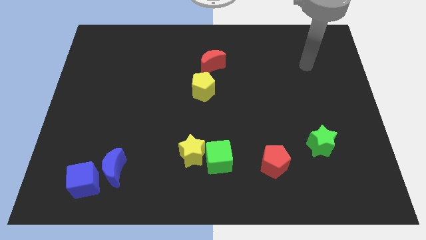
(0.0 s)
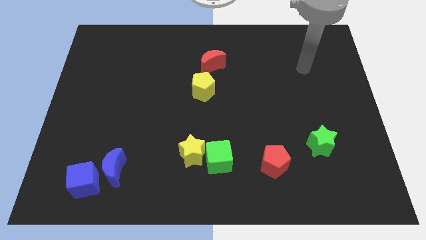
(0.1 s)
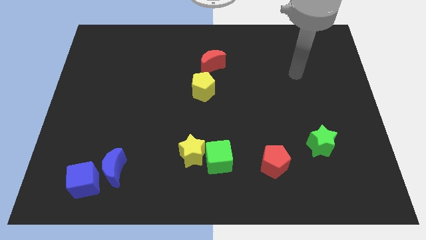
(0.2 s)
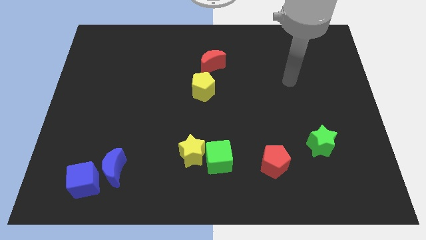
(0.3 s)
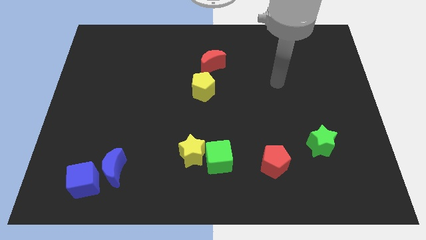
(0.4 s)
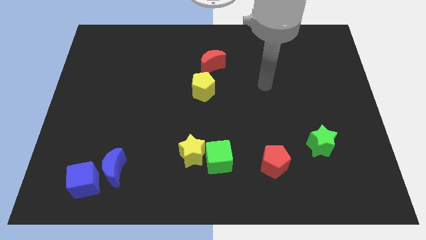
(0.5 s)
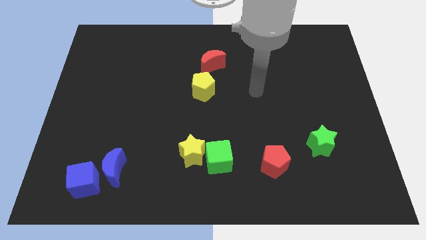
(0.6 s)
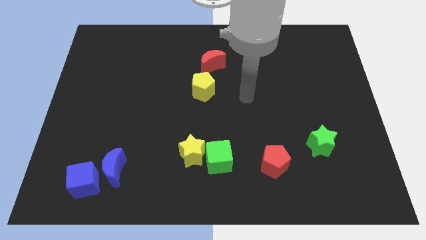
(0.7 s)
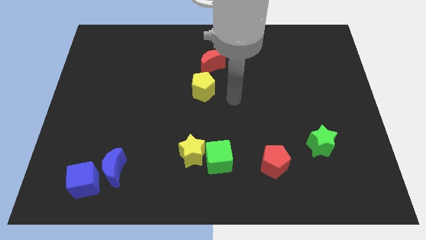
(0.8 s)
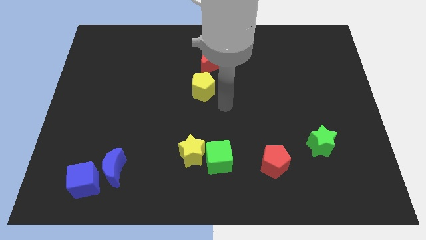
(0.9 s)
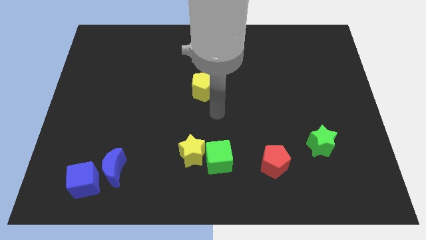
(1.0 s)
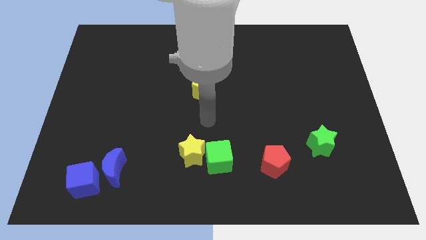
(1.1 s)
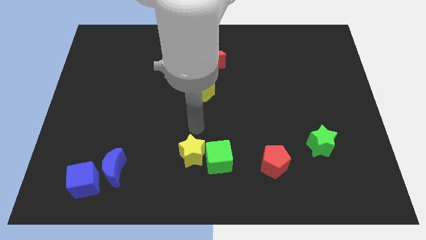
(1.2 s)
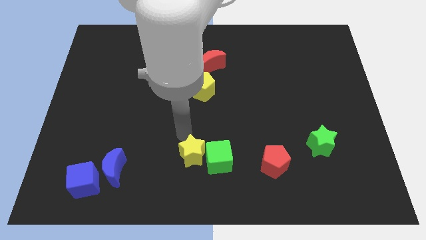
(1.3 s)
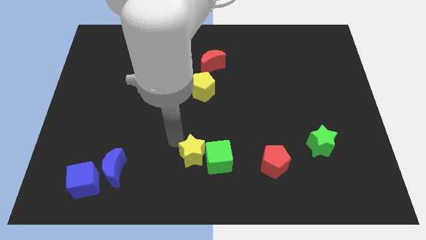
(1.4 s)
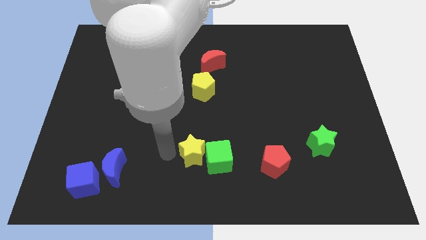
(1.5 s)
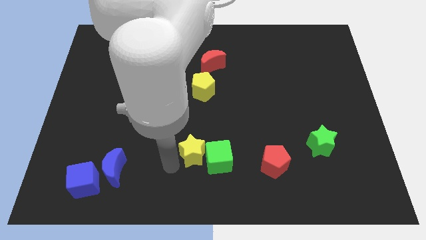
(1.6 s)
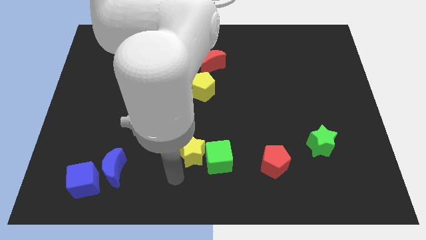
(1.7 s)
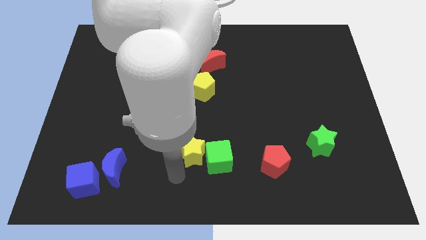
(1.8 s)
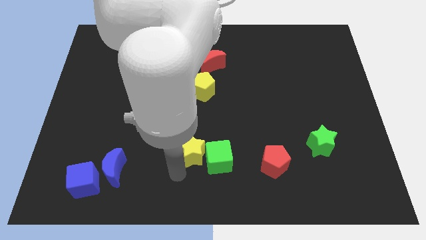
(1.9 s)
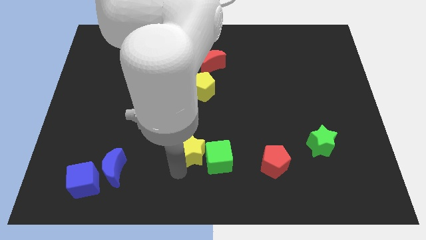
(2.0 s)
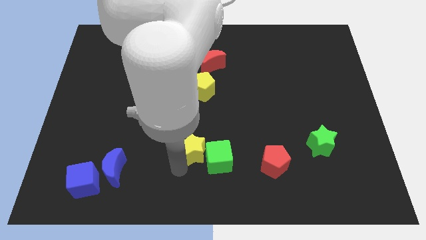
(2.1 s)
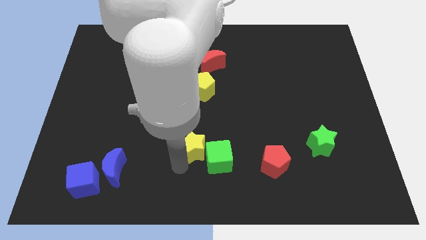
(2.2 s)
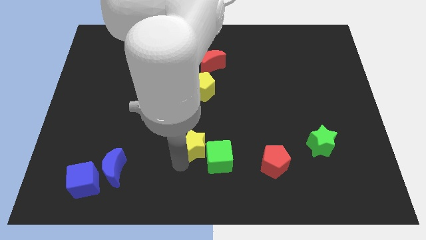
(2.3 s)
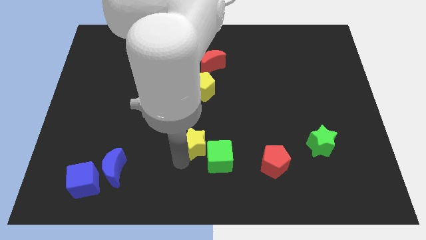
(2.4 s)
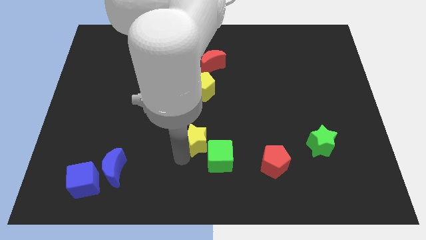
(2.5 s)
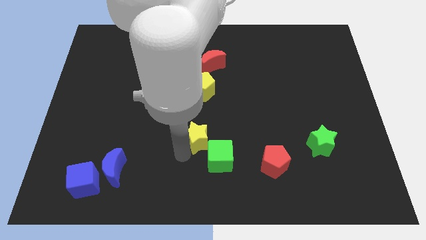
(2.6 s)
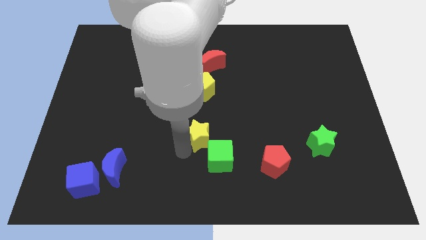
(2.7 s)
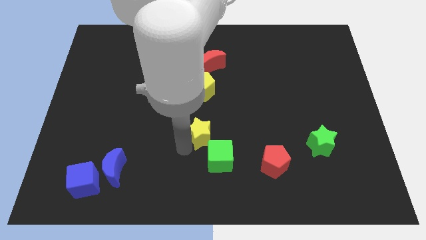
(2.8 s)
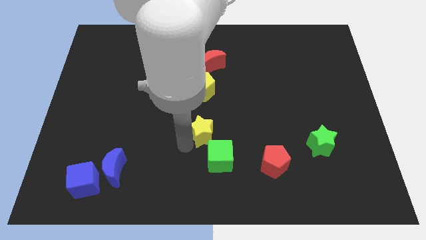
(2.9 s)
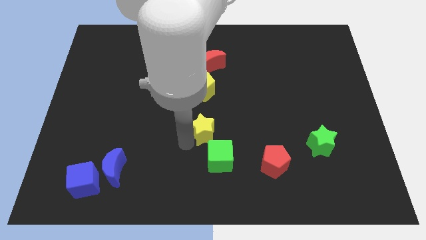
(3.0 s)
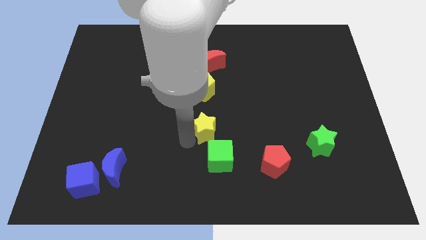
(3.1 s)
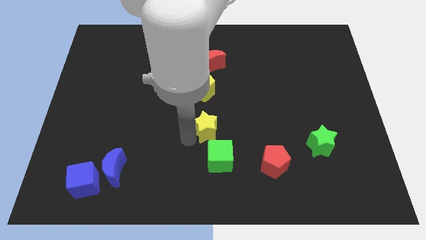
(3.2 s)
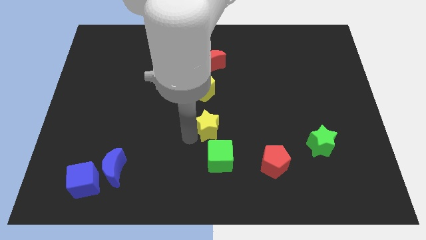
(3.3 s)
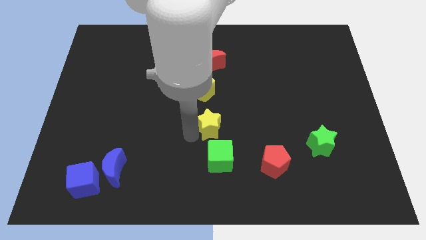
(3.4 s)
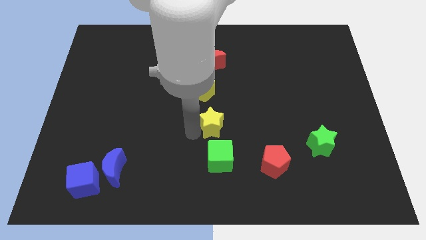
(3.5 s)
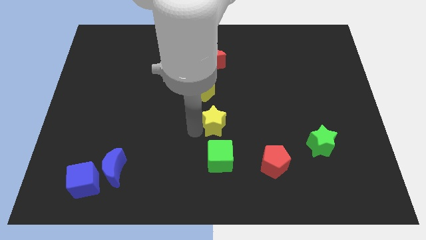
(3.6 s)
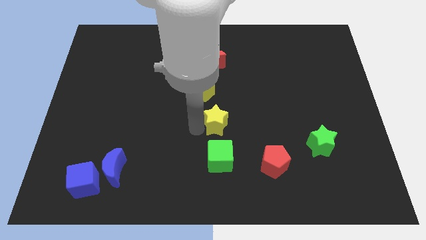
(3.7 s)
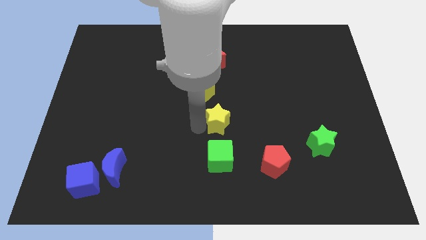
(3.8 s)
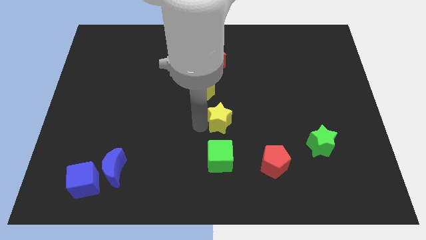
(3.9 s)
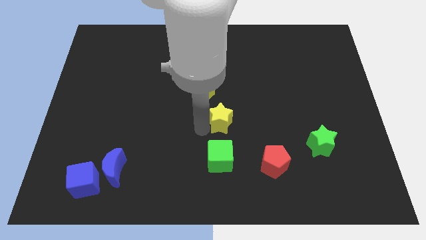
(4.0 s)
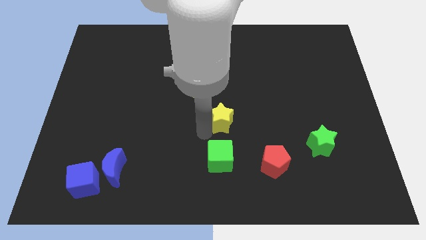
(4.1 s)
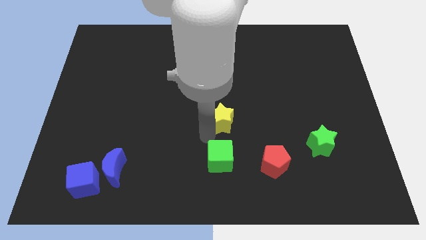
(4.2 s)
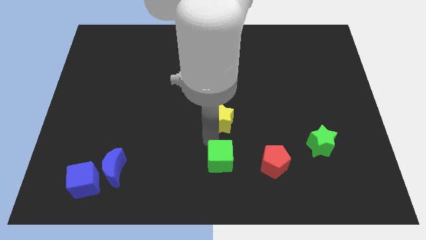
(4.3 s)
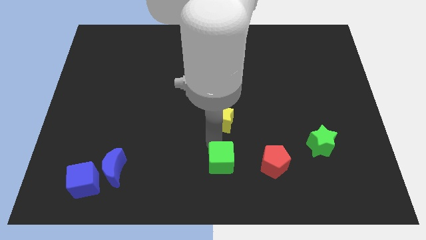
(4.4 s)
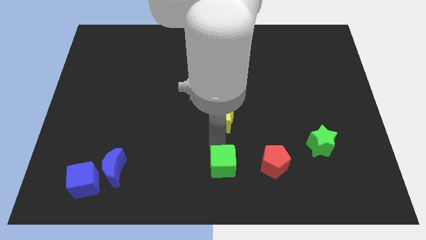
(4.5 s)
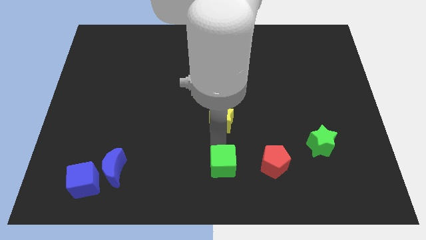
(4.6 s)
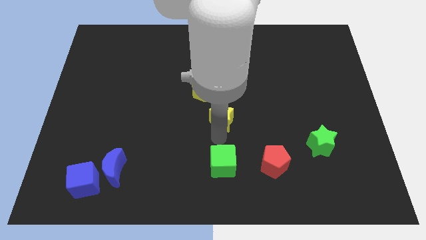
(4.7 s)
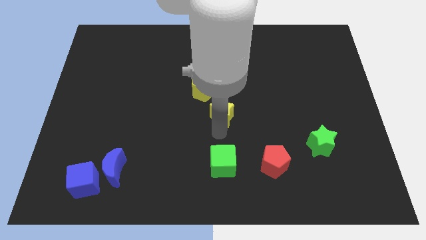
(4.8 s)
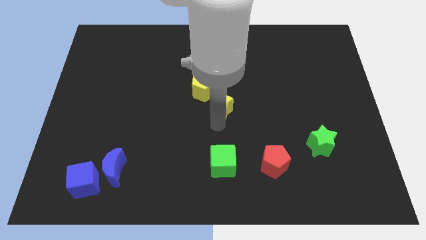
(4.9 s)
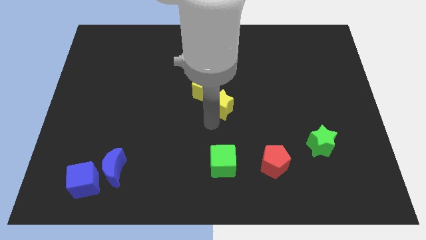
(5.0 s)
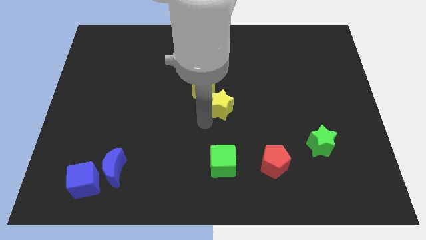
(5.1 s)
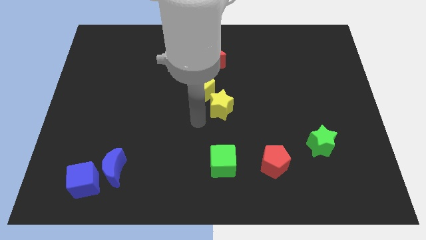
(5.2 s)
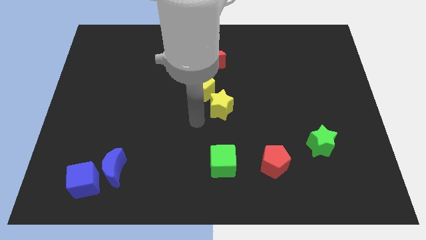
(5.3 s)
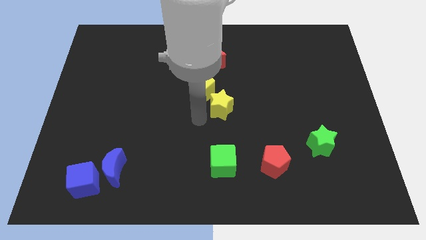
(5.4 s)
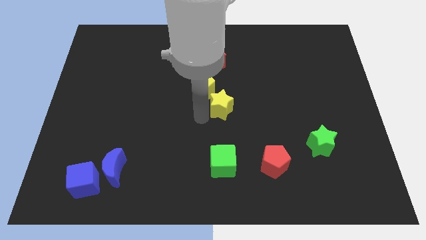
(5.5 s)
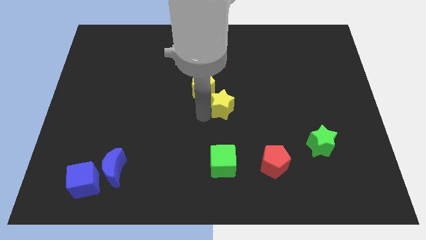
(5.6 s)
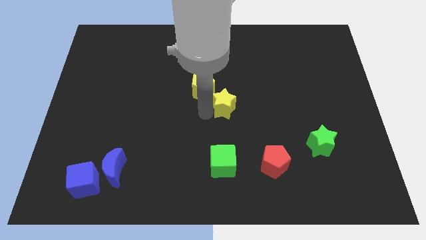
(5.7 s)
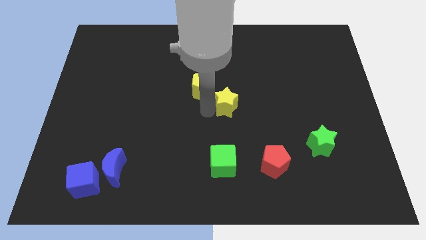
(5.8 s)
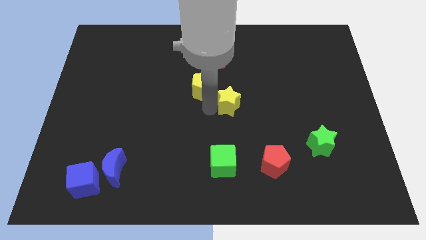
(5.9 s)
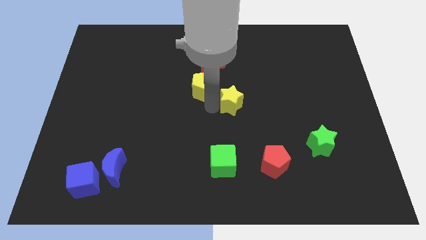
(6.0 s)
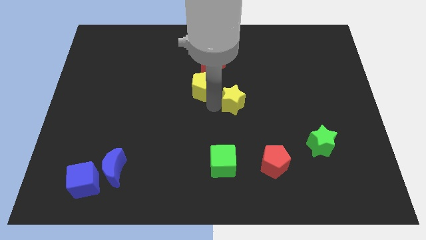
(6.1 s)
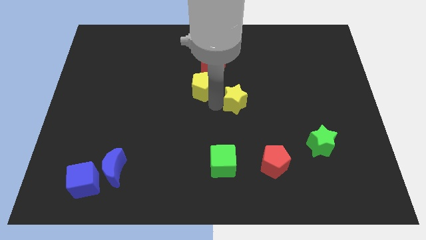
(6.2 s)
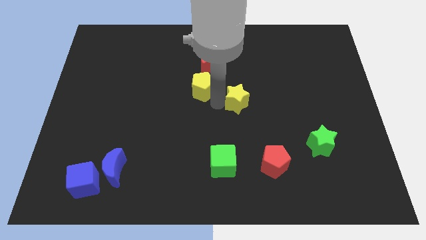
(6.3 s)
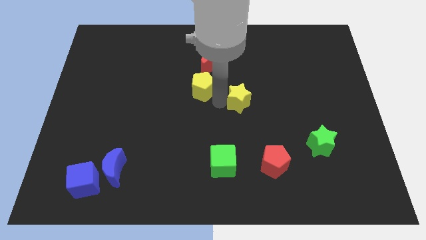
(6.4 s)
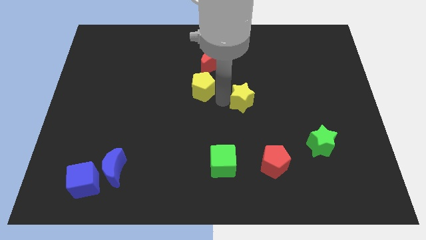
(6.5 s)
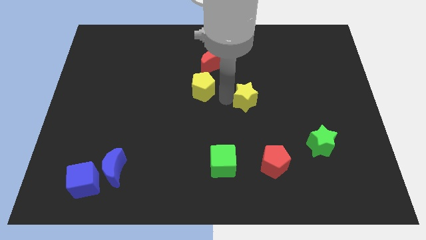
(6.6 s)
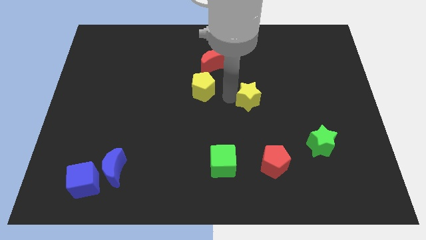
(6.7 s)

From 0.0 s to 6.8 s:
move the yellow star upwards and right

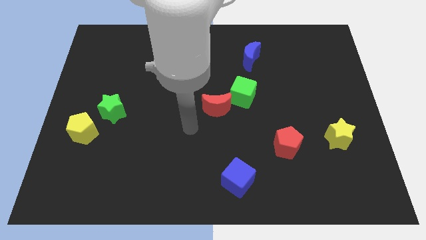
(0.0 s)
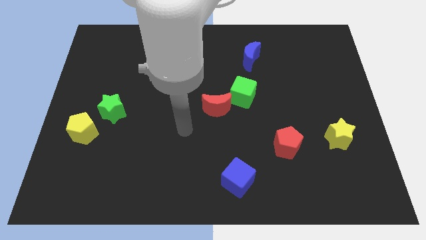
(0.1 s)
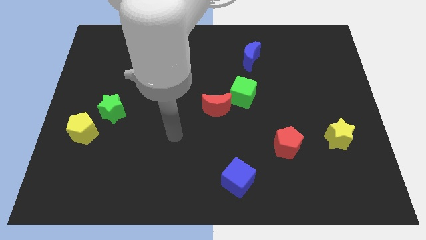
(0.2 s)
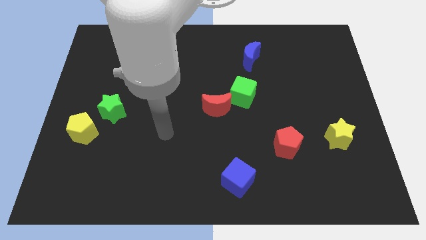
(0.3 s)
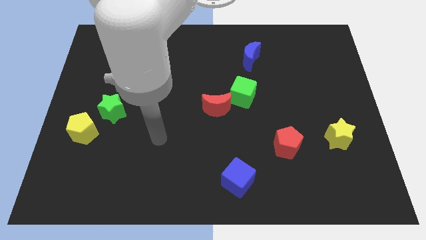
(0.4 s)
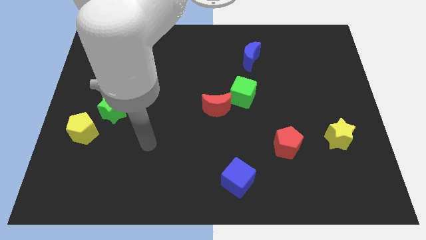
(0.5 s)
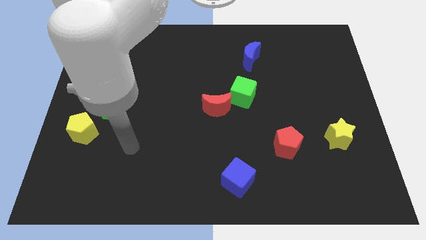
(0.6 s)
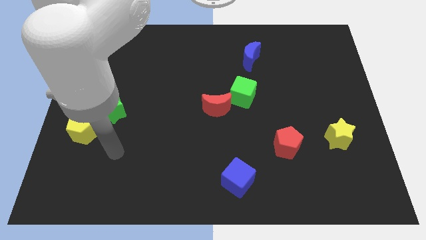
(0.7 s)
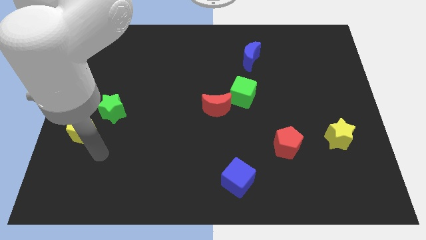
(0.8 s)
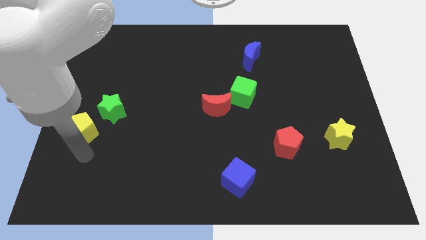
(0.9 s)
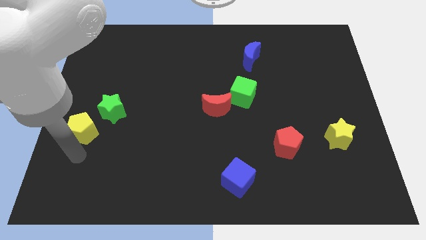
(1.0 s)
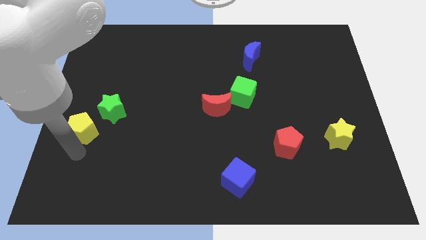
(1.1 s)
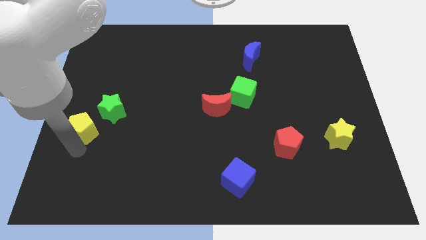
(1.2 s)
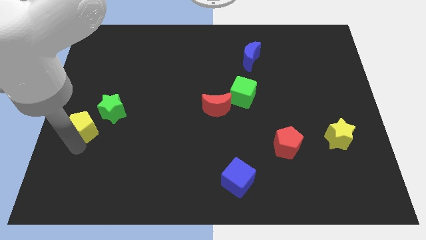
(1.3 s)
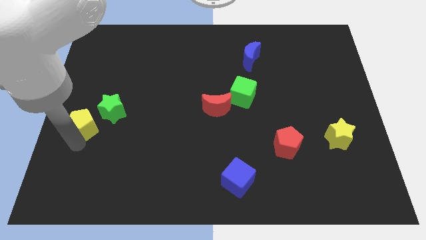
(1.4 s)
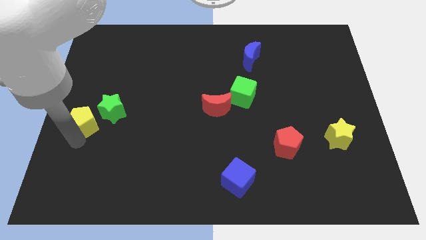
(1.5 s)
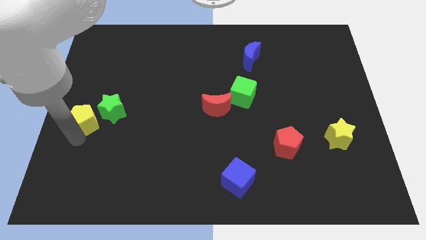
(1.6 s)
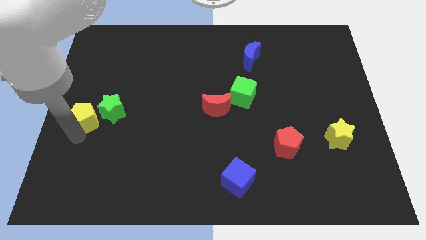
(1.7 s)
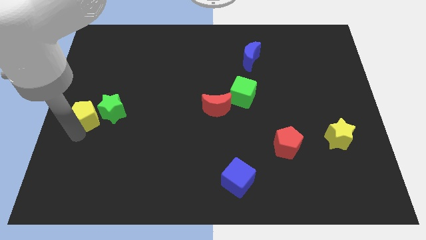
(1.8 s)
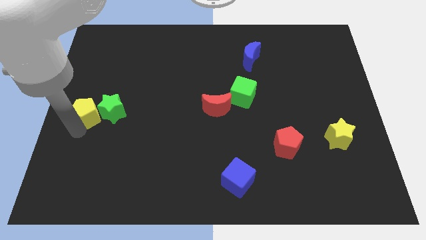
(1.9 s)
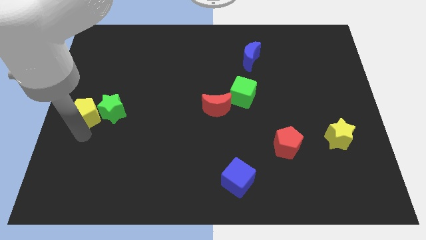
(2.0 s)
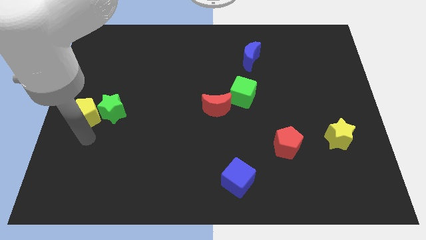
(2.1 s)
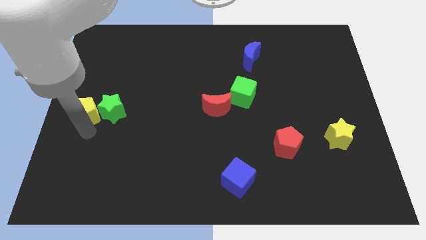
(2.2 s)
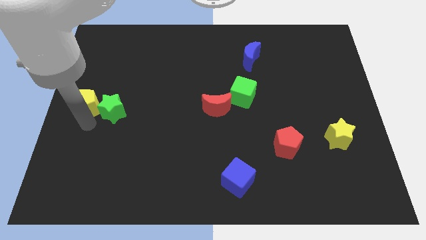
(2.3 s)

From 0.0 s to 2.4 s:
slightly push the yellow pentagon up
